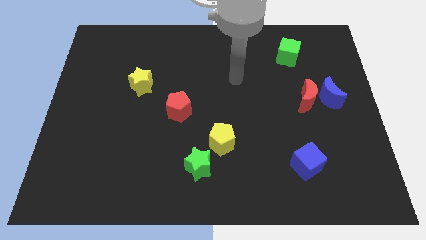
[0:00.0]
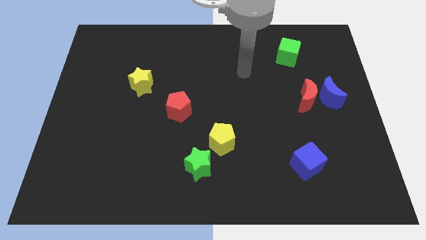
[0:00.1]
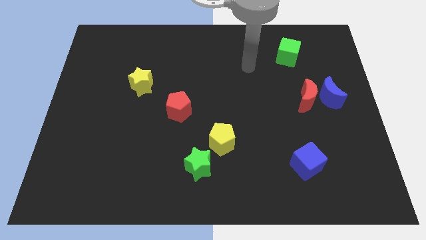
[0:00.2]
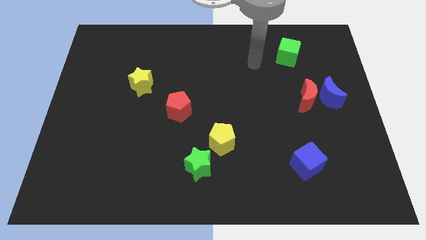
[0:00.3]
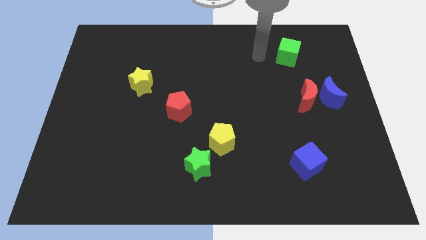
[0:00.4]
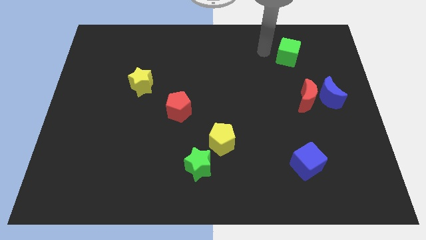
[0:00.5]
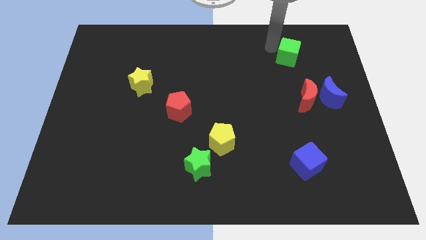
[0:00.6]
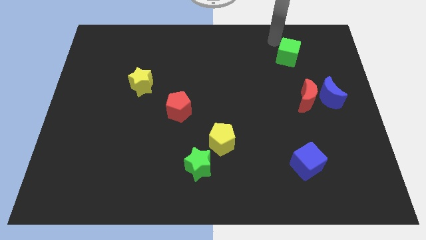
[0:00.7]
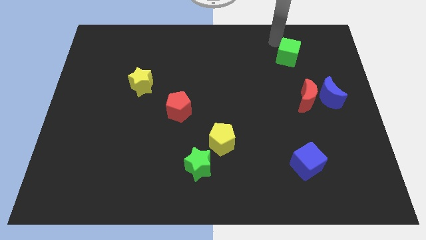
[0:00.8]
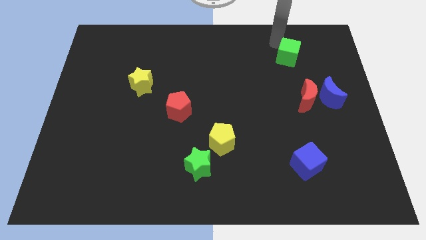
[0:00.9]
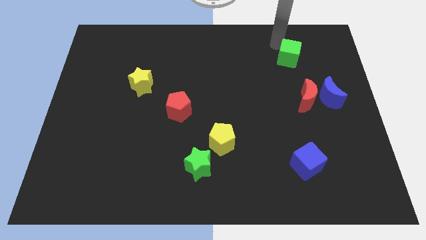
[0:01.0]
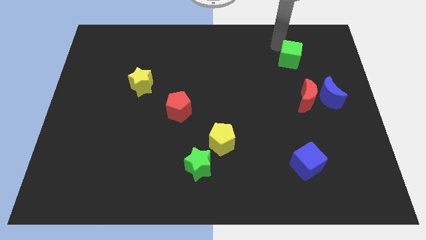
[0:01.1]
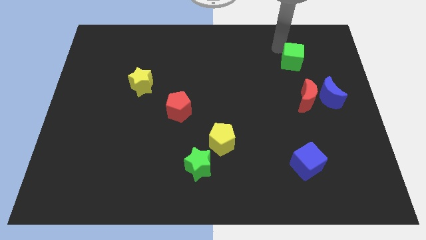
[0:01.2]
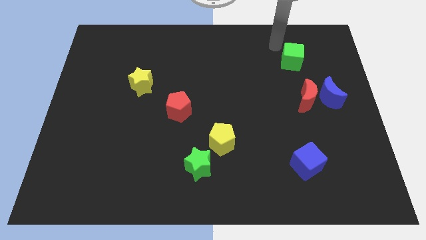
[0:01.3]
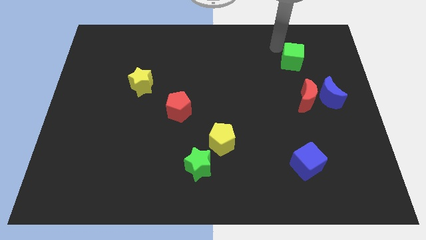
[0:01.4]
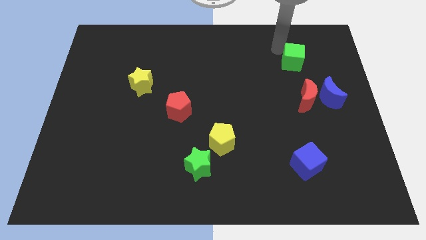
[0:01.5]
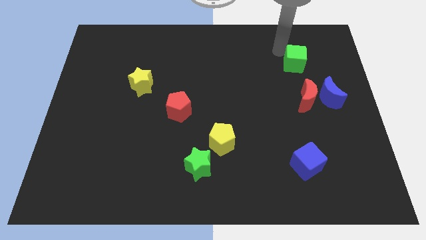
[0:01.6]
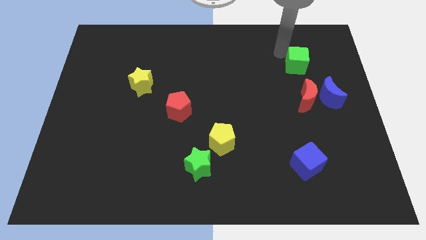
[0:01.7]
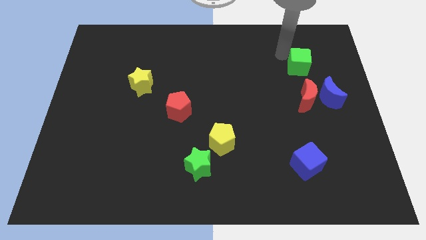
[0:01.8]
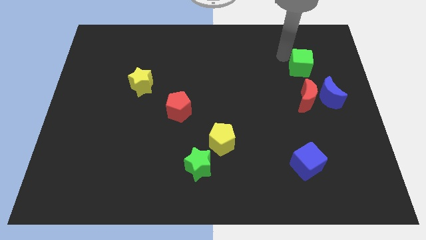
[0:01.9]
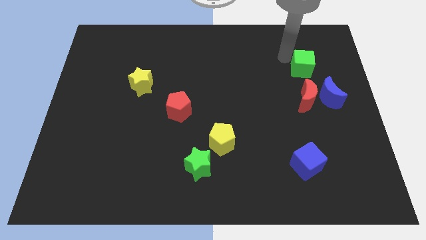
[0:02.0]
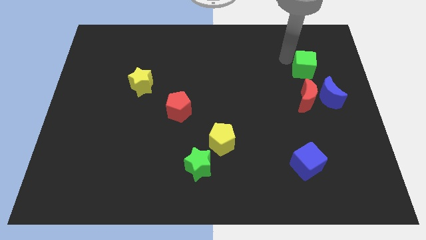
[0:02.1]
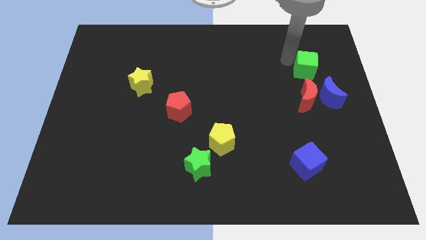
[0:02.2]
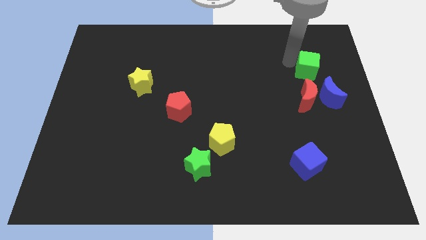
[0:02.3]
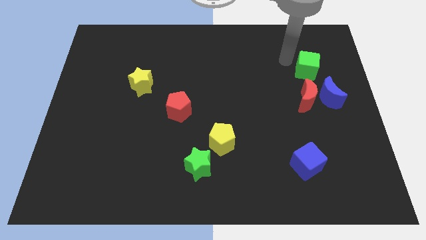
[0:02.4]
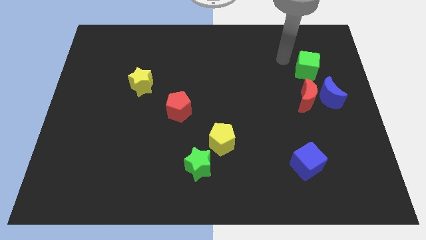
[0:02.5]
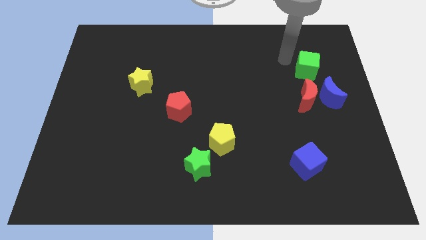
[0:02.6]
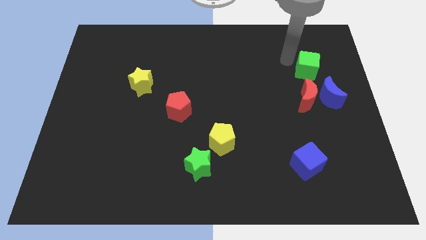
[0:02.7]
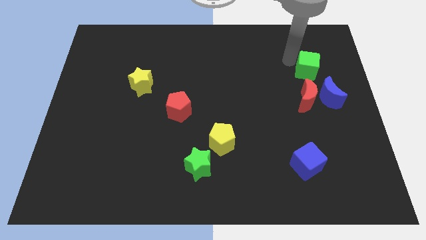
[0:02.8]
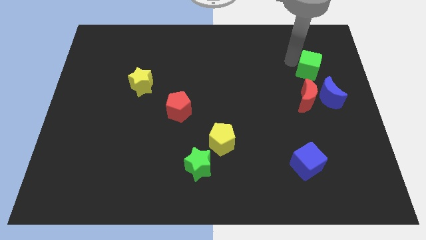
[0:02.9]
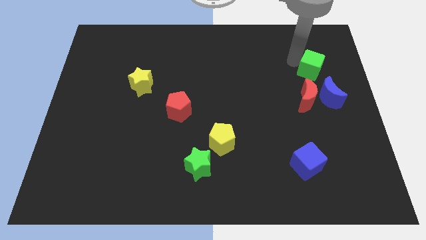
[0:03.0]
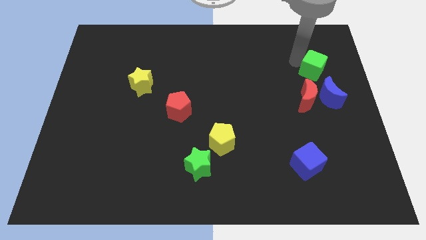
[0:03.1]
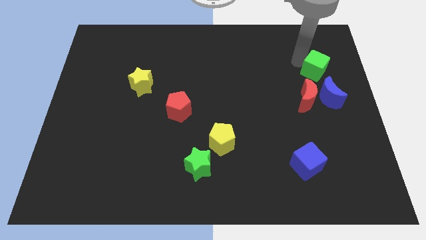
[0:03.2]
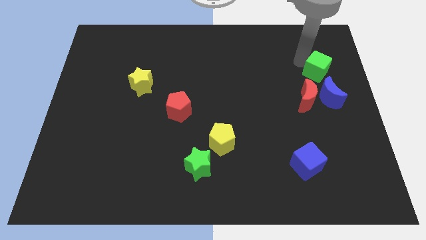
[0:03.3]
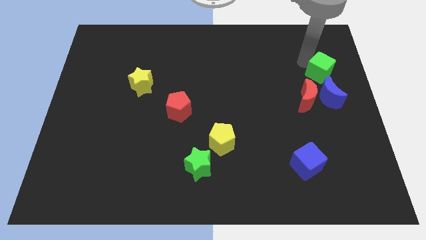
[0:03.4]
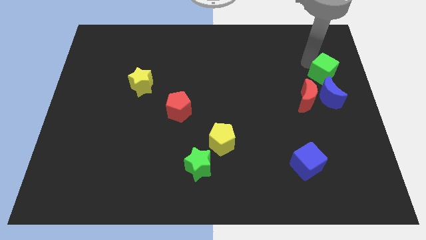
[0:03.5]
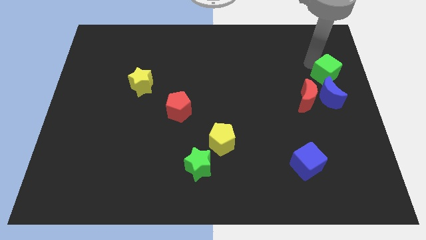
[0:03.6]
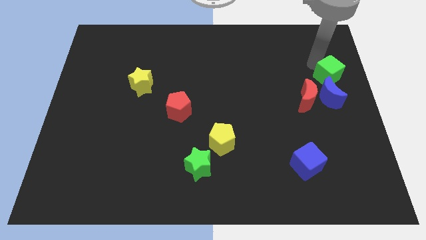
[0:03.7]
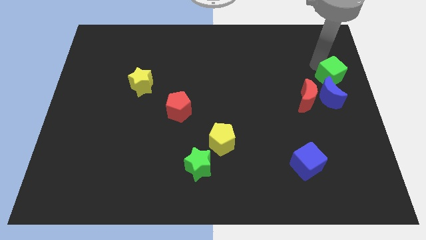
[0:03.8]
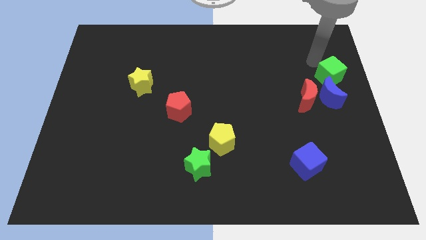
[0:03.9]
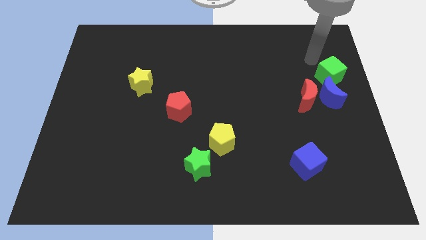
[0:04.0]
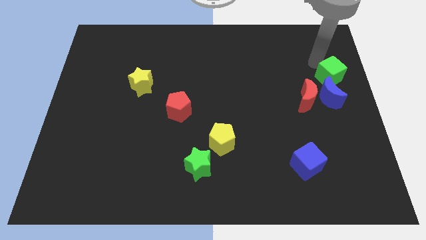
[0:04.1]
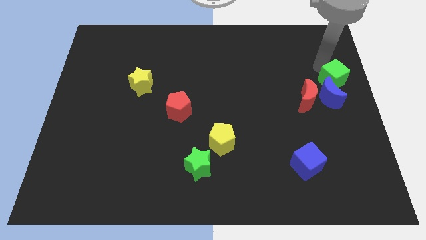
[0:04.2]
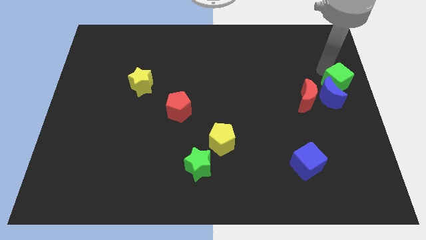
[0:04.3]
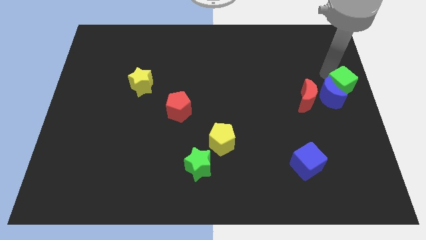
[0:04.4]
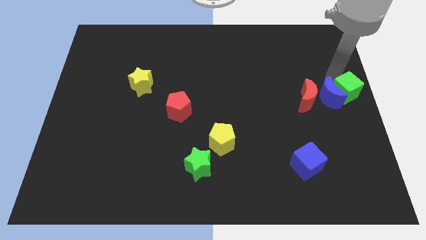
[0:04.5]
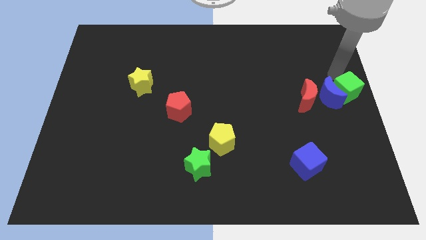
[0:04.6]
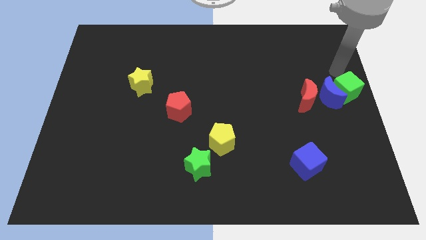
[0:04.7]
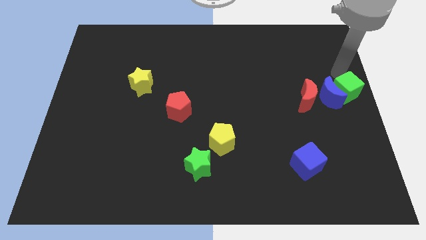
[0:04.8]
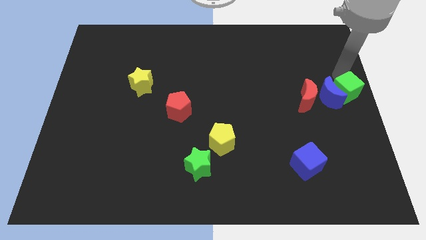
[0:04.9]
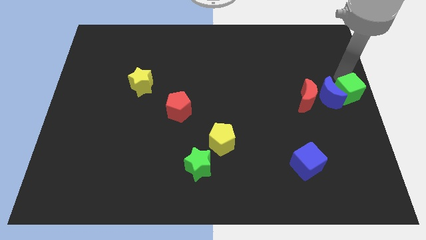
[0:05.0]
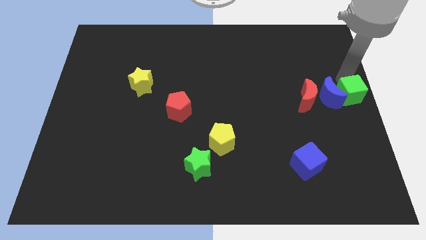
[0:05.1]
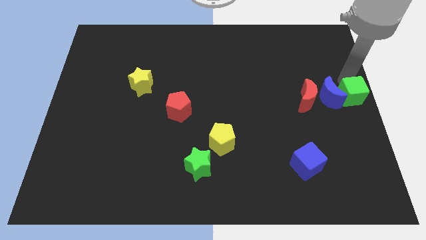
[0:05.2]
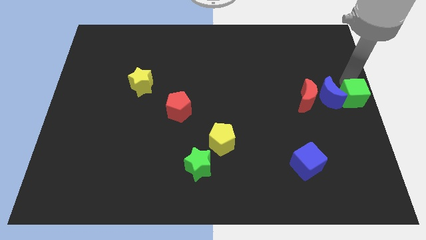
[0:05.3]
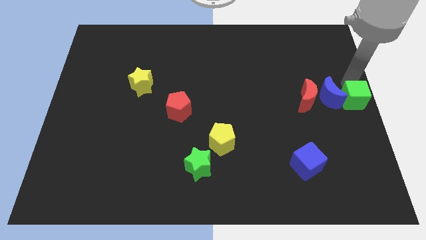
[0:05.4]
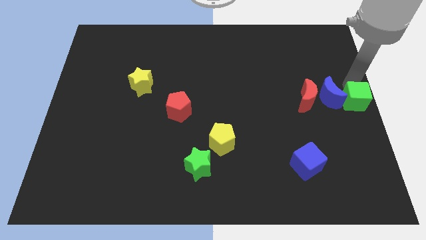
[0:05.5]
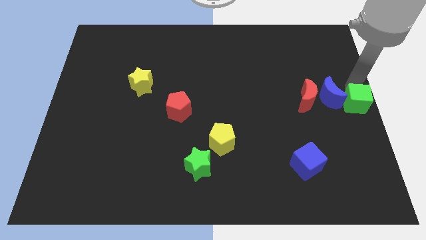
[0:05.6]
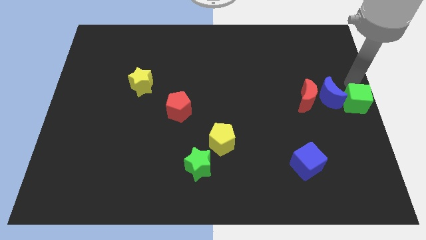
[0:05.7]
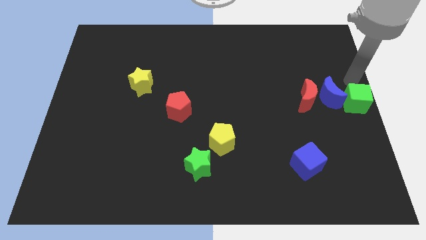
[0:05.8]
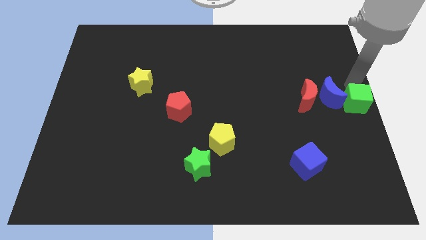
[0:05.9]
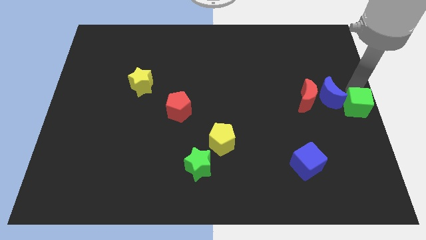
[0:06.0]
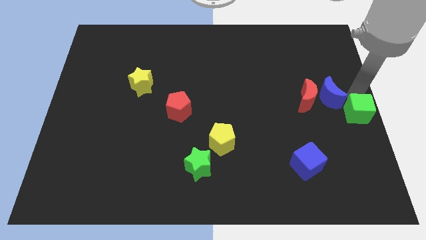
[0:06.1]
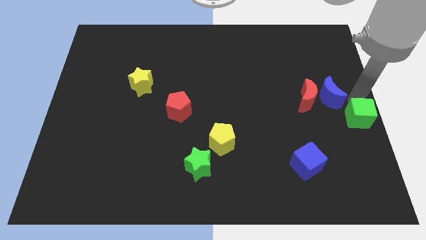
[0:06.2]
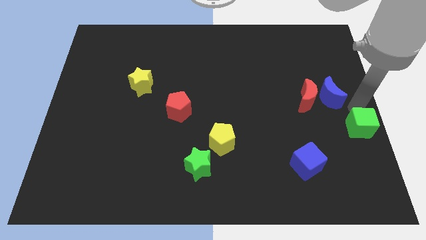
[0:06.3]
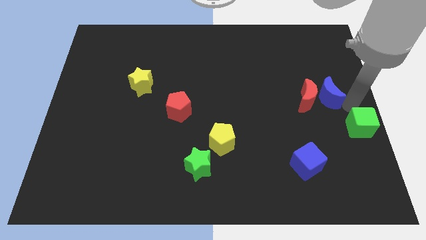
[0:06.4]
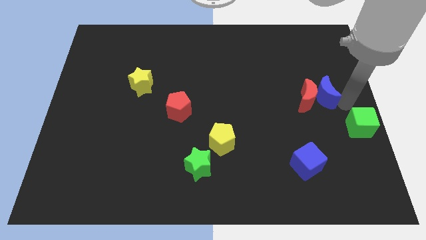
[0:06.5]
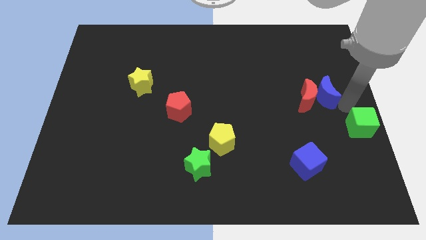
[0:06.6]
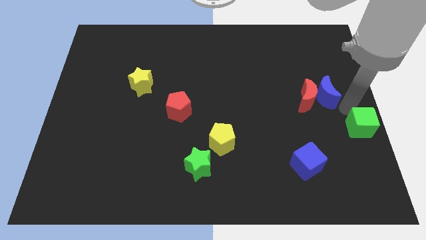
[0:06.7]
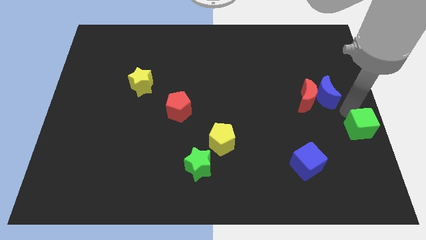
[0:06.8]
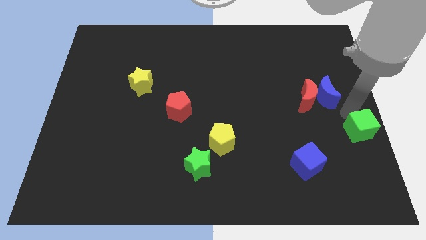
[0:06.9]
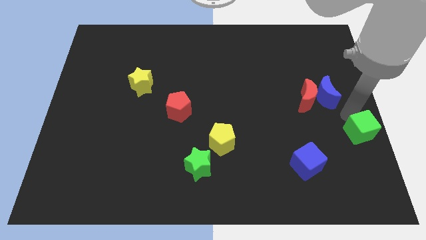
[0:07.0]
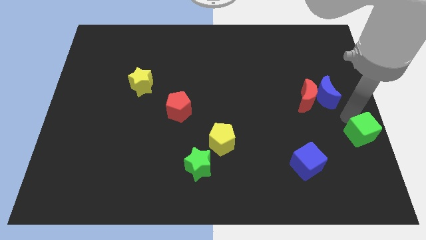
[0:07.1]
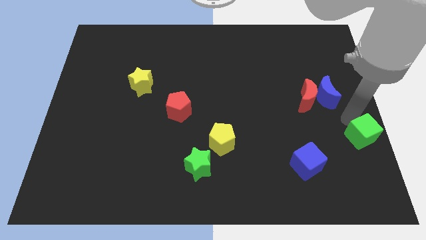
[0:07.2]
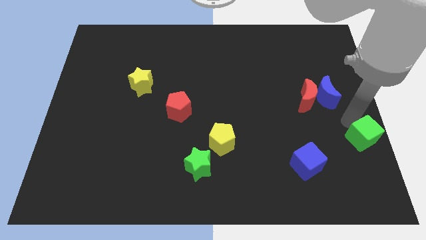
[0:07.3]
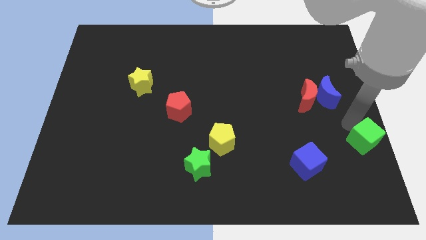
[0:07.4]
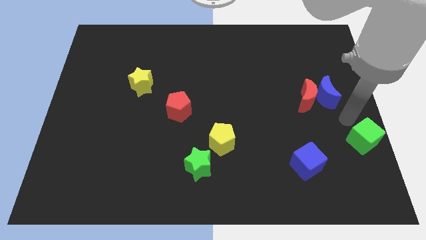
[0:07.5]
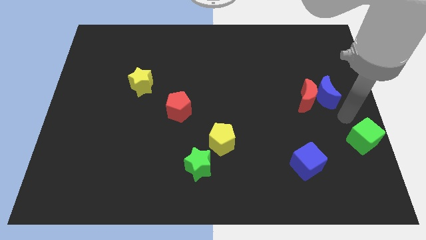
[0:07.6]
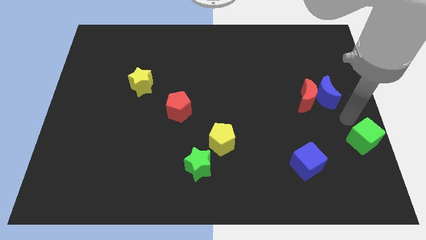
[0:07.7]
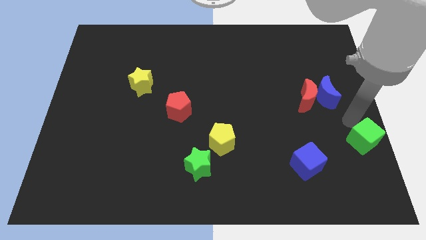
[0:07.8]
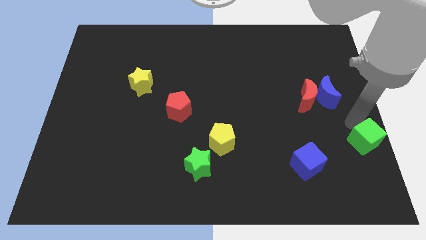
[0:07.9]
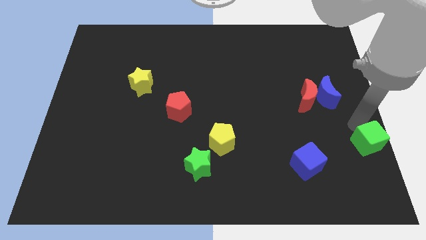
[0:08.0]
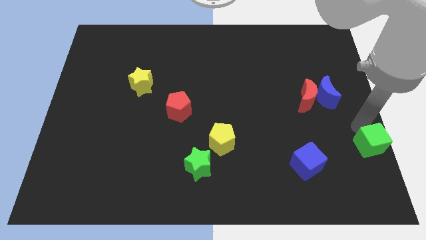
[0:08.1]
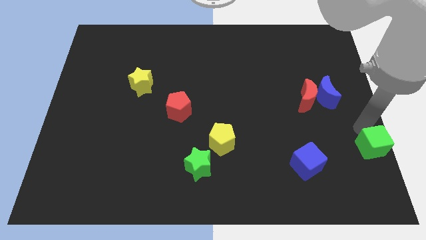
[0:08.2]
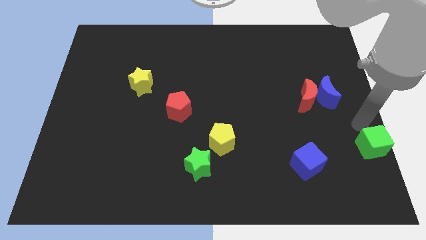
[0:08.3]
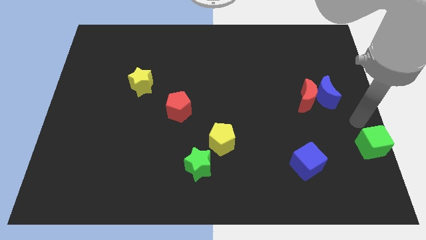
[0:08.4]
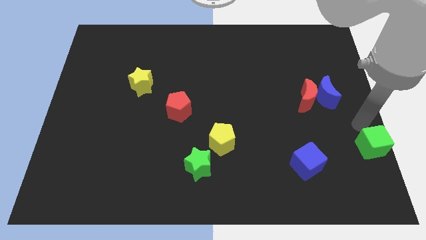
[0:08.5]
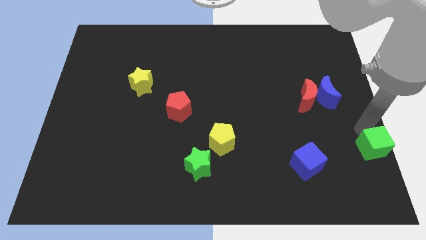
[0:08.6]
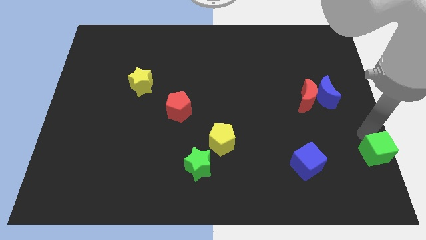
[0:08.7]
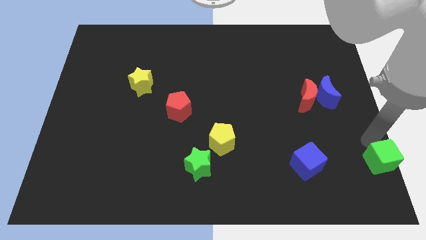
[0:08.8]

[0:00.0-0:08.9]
move the green cube to the bottom right
